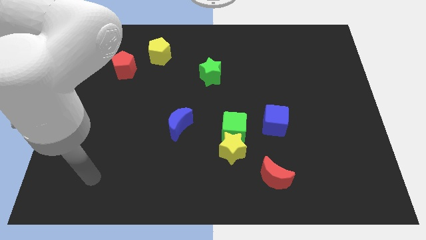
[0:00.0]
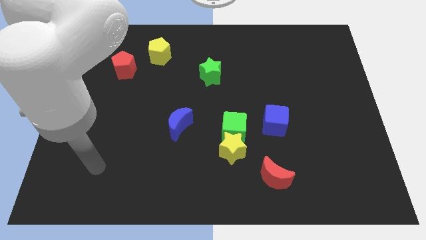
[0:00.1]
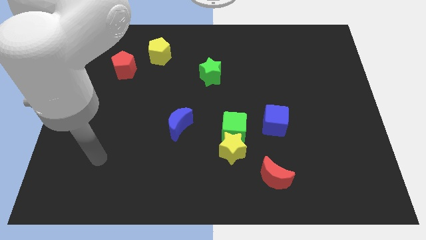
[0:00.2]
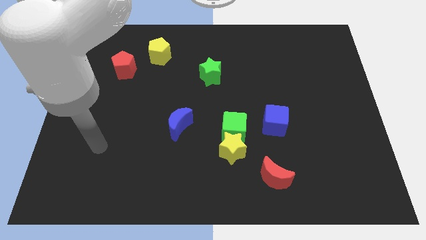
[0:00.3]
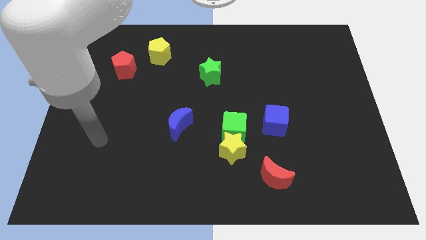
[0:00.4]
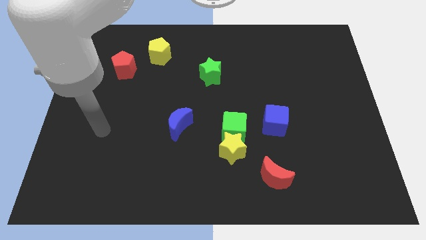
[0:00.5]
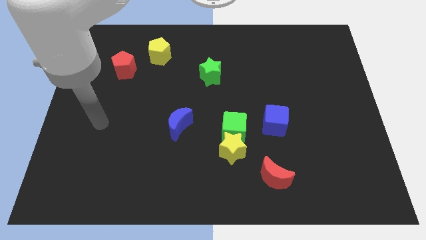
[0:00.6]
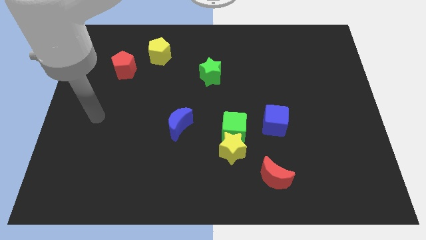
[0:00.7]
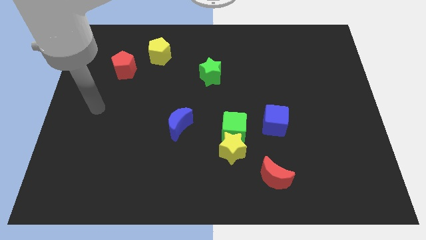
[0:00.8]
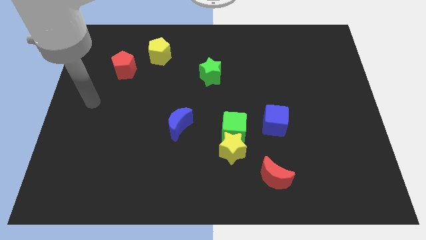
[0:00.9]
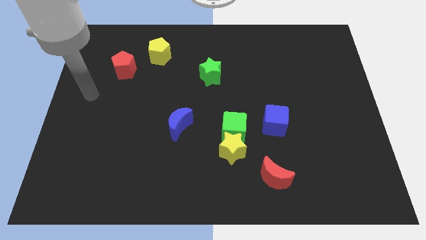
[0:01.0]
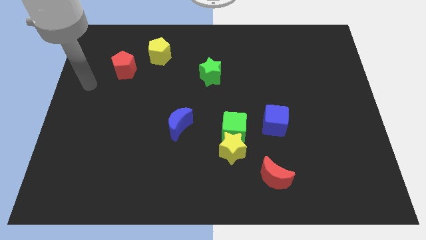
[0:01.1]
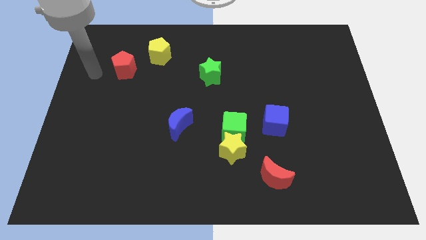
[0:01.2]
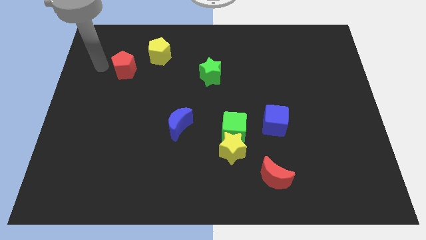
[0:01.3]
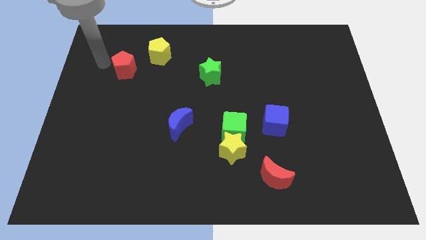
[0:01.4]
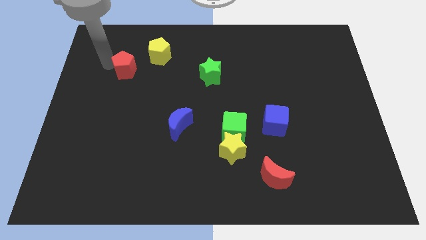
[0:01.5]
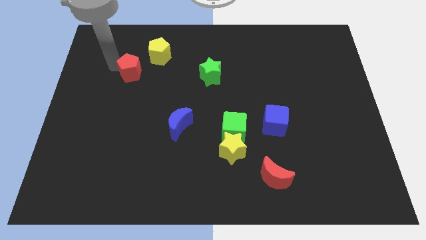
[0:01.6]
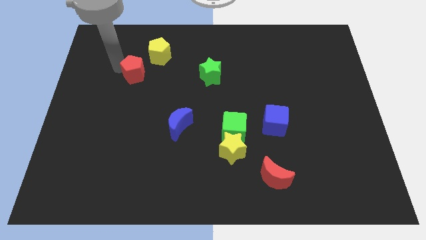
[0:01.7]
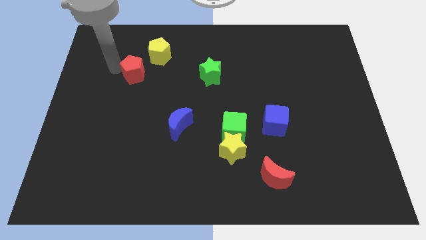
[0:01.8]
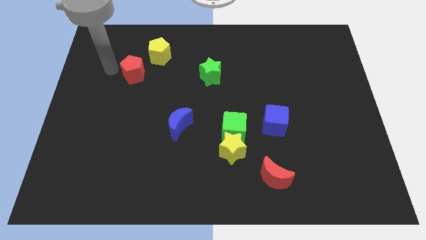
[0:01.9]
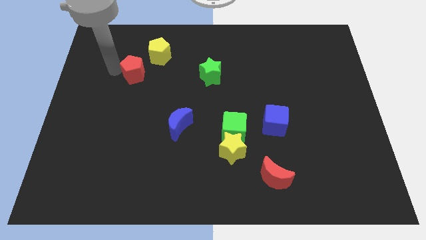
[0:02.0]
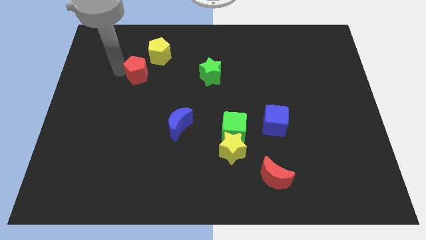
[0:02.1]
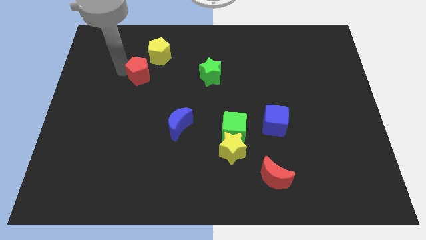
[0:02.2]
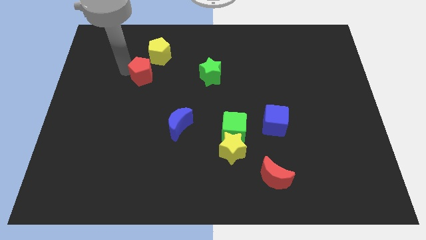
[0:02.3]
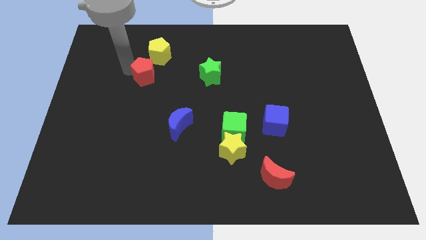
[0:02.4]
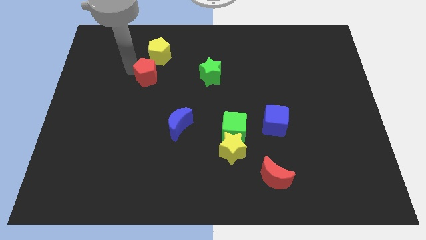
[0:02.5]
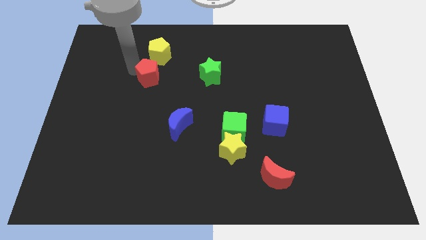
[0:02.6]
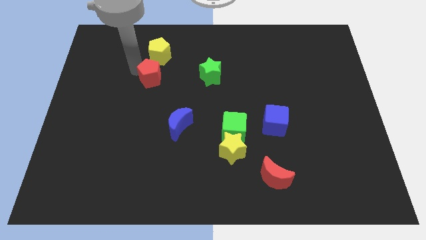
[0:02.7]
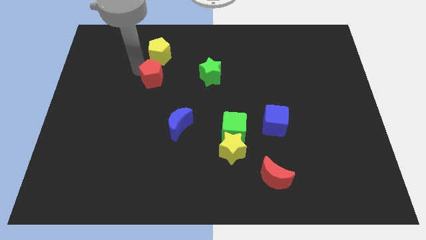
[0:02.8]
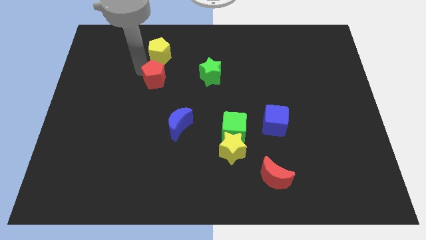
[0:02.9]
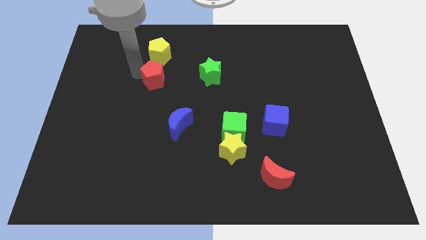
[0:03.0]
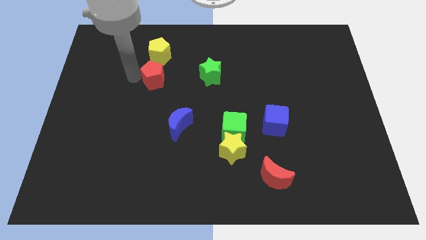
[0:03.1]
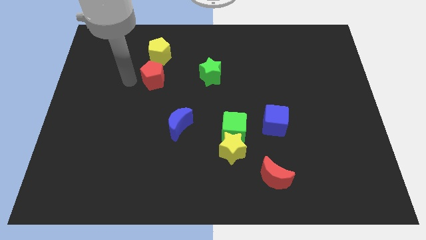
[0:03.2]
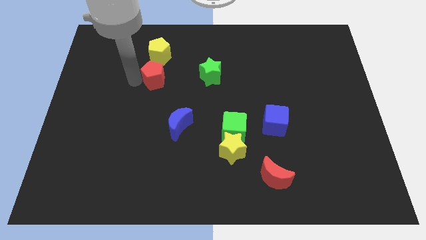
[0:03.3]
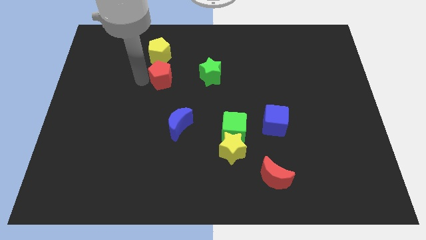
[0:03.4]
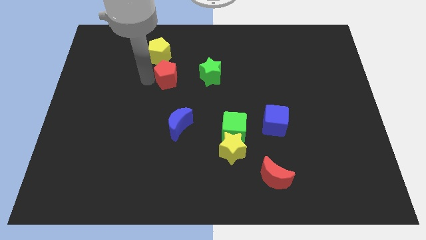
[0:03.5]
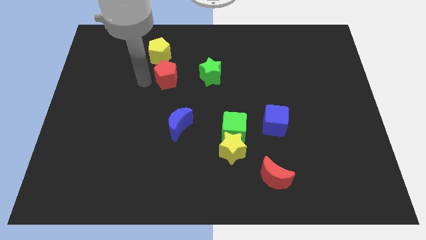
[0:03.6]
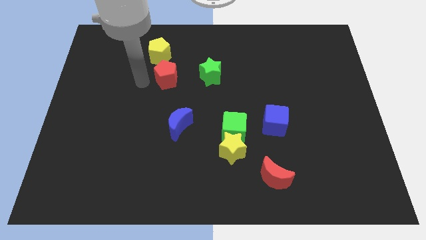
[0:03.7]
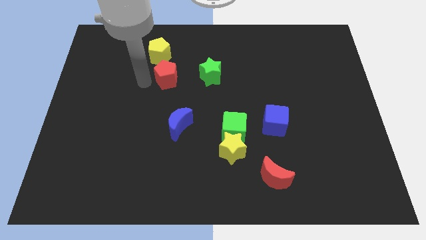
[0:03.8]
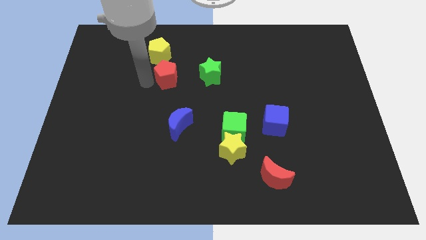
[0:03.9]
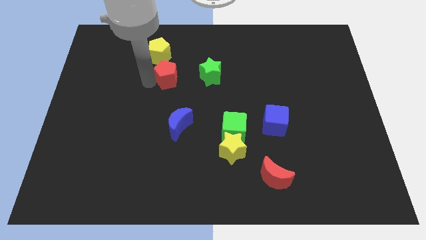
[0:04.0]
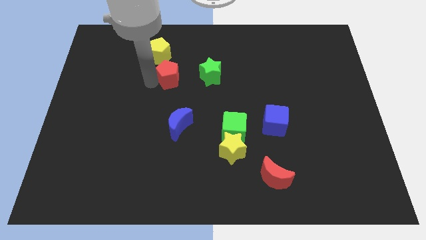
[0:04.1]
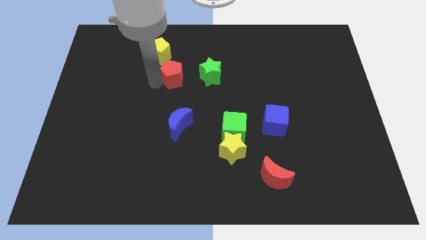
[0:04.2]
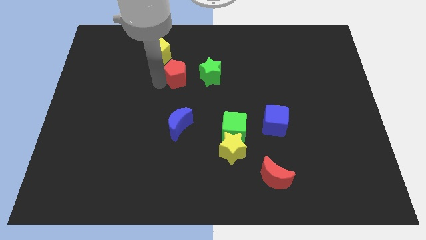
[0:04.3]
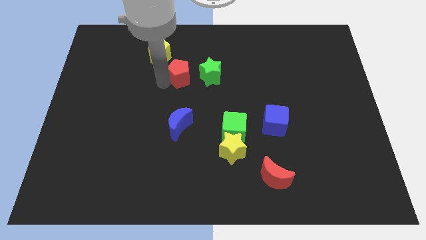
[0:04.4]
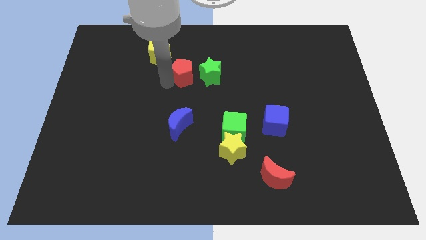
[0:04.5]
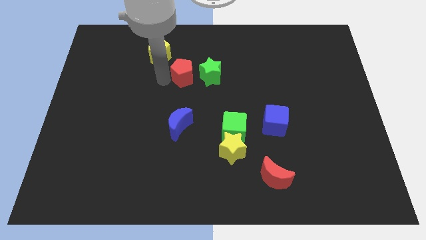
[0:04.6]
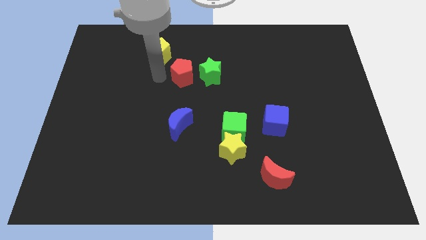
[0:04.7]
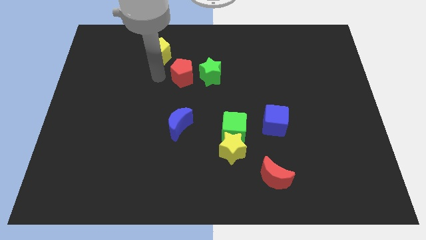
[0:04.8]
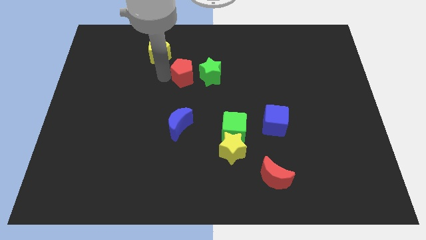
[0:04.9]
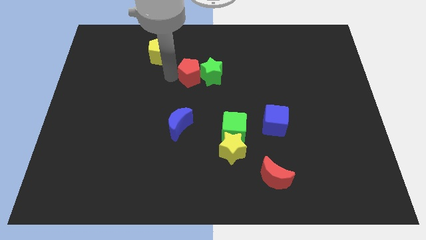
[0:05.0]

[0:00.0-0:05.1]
move the red pentagon towards the green star

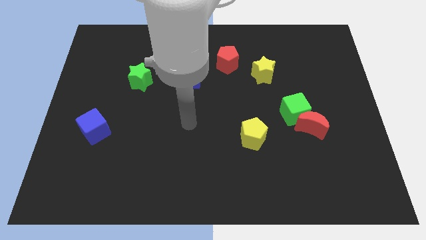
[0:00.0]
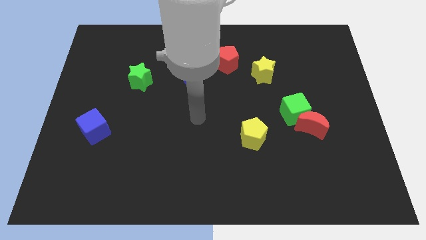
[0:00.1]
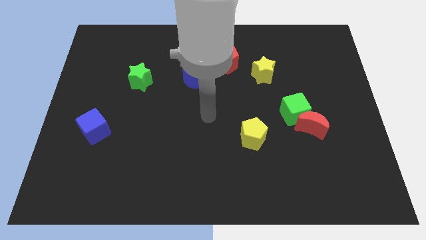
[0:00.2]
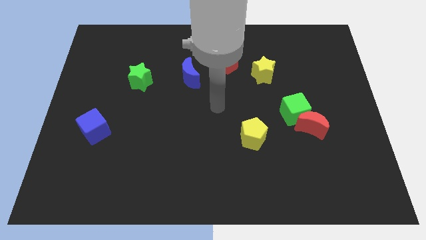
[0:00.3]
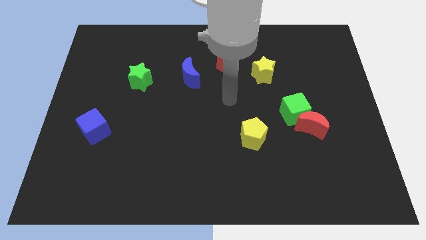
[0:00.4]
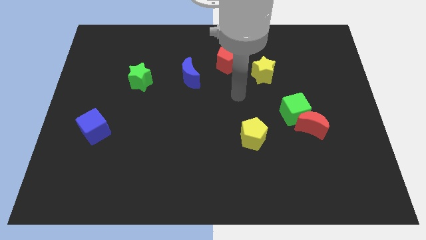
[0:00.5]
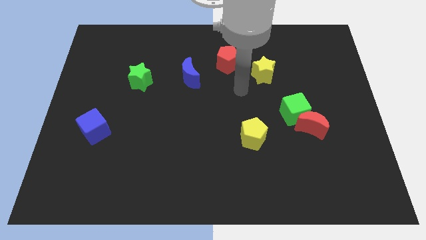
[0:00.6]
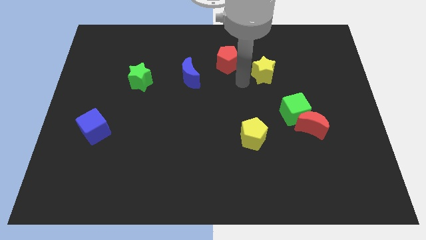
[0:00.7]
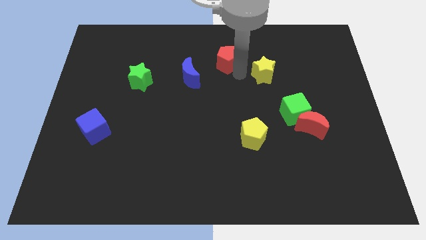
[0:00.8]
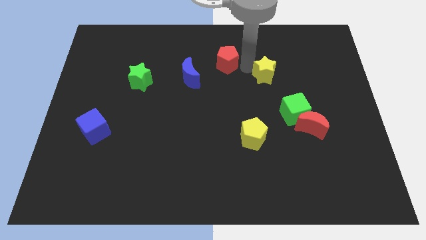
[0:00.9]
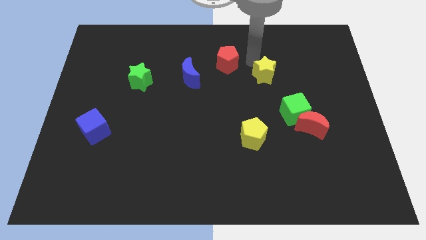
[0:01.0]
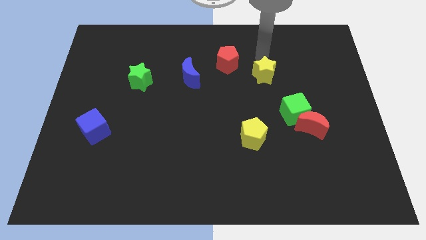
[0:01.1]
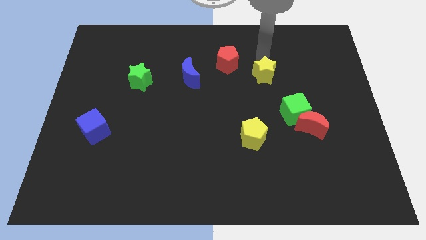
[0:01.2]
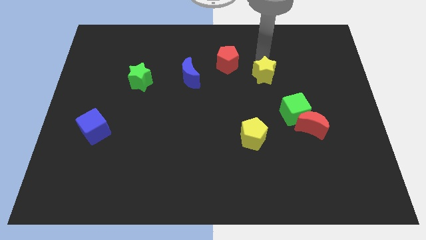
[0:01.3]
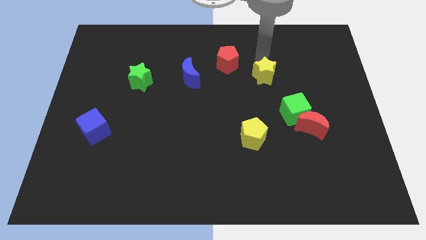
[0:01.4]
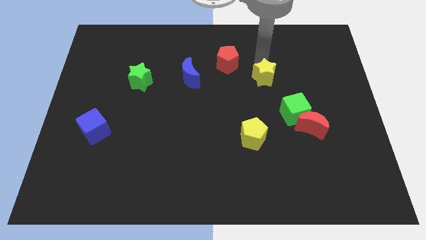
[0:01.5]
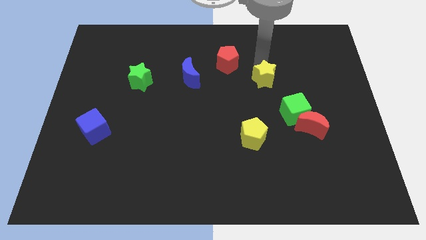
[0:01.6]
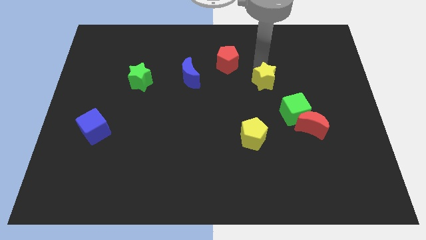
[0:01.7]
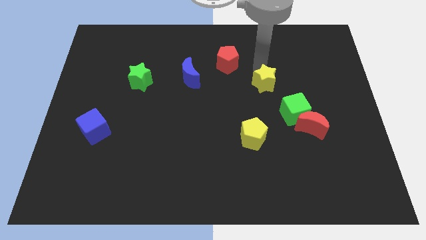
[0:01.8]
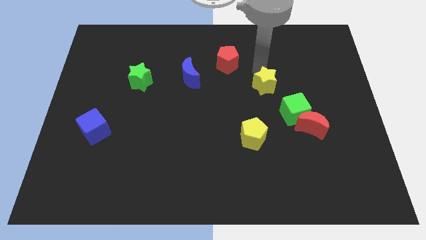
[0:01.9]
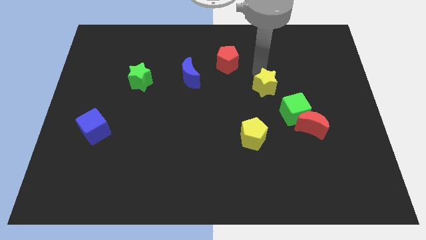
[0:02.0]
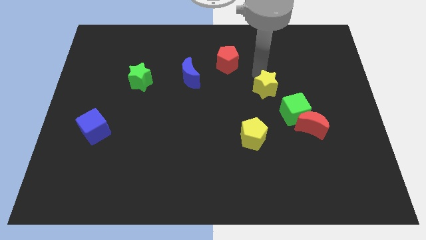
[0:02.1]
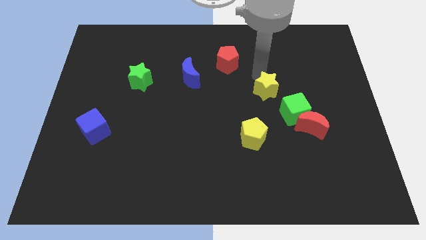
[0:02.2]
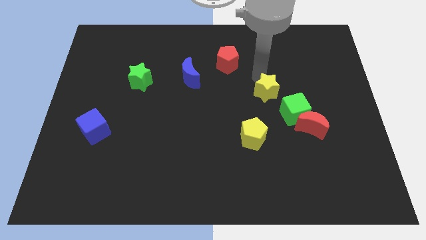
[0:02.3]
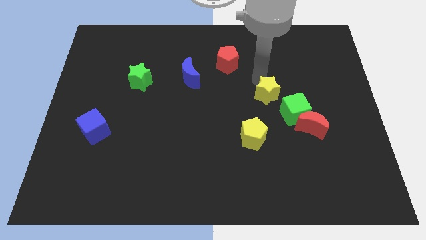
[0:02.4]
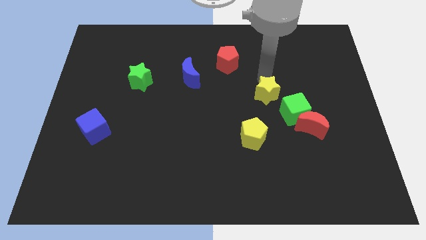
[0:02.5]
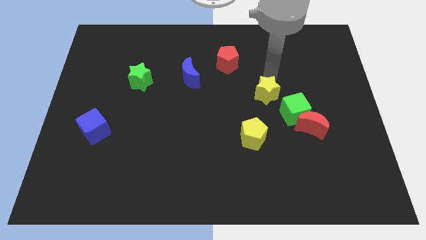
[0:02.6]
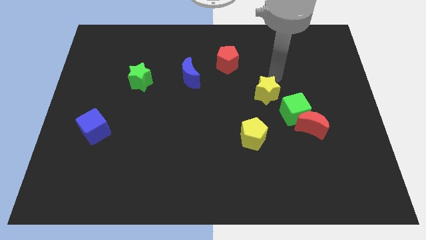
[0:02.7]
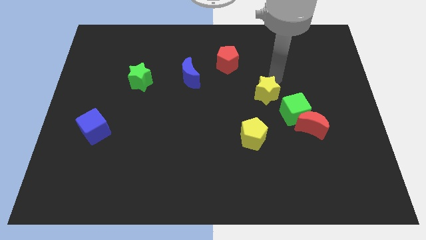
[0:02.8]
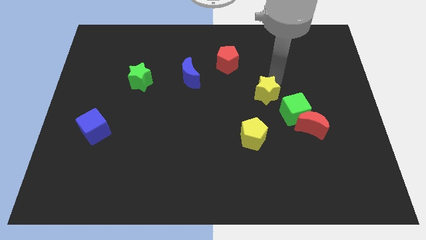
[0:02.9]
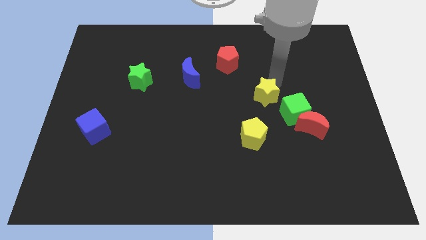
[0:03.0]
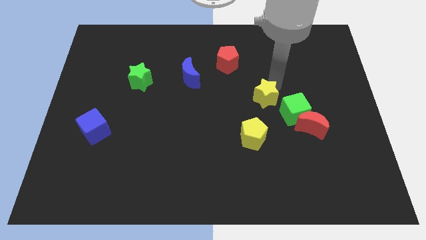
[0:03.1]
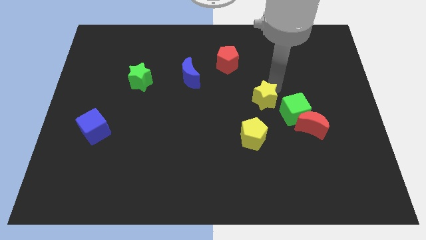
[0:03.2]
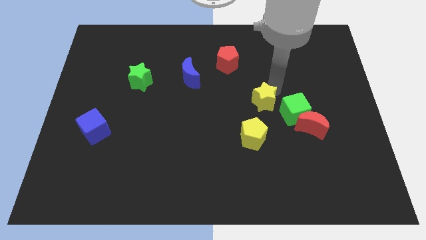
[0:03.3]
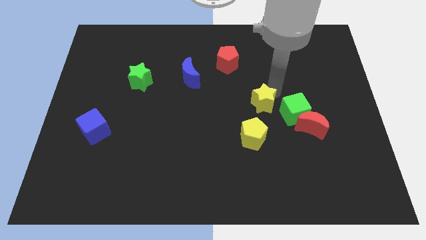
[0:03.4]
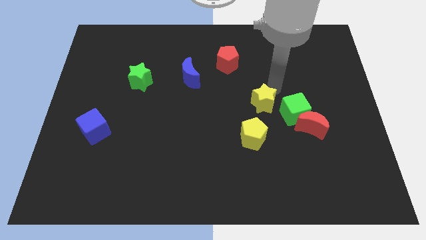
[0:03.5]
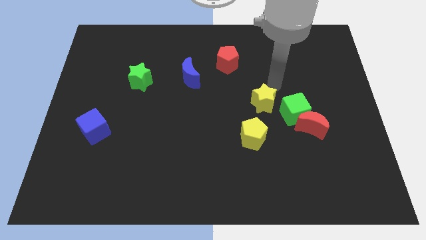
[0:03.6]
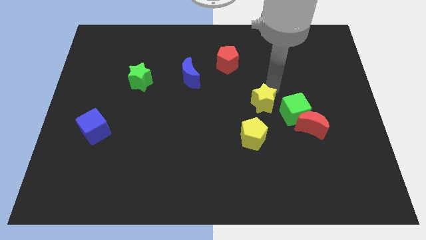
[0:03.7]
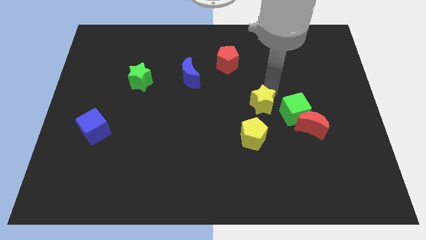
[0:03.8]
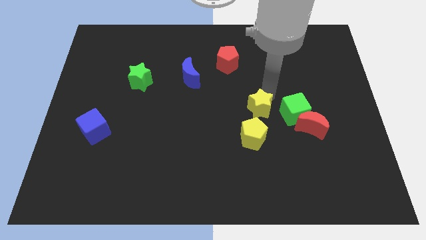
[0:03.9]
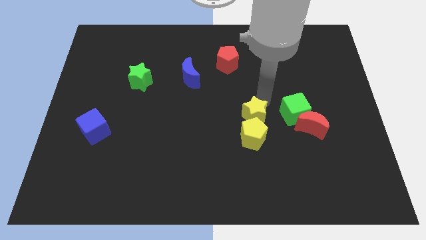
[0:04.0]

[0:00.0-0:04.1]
put the yellow star towards the yellow pentagon
